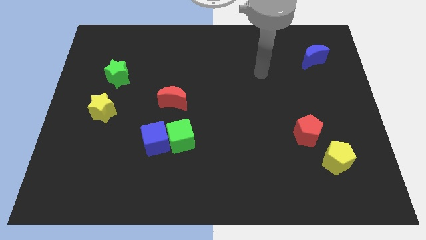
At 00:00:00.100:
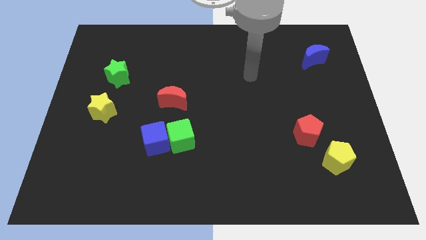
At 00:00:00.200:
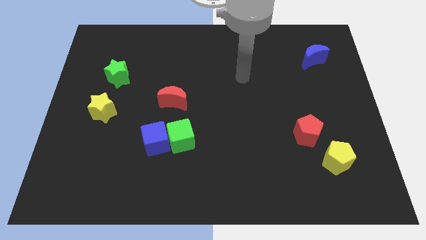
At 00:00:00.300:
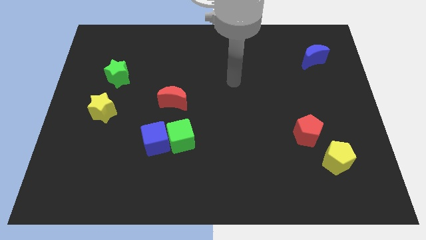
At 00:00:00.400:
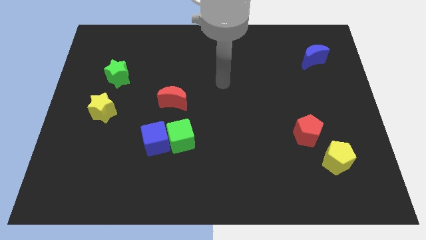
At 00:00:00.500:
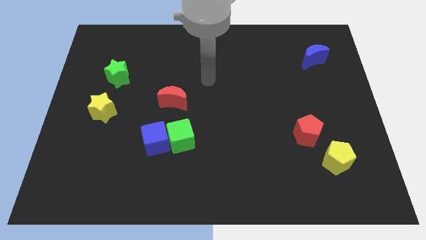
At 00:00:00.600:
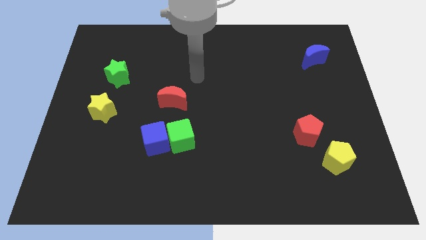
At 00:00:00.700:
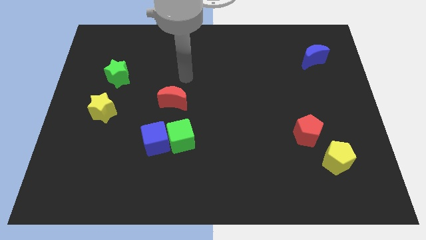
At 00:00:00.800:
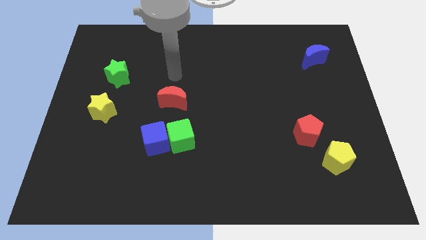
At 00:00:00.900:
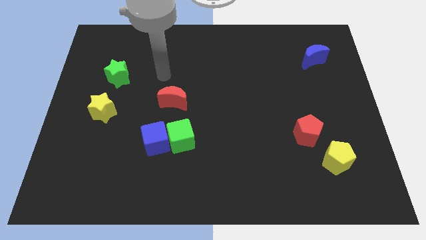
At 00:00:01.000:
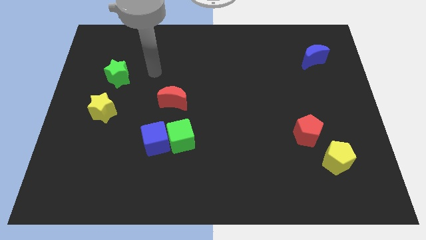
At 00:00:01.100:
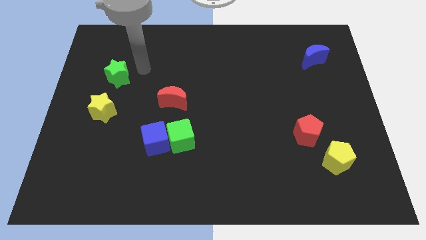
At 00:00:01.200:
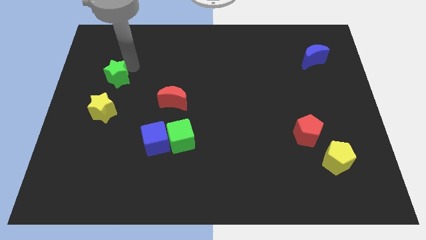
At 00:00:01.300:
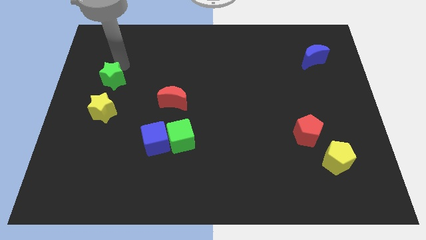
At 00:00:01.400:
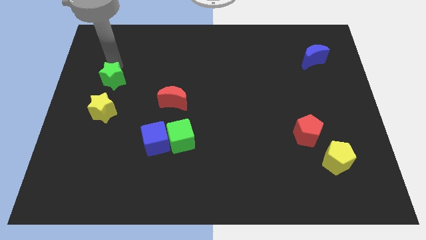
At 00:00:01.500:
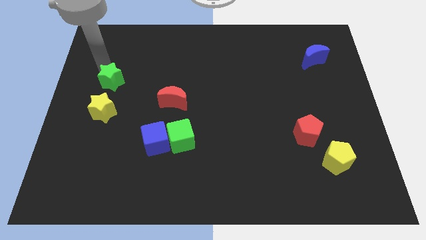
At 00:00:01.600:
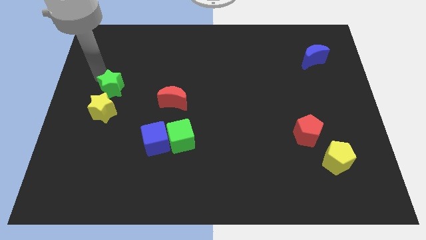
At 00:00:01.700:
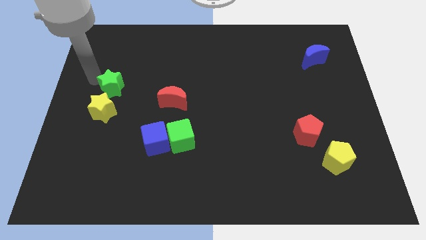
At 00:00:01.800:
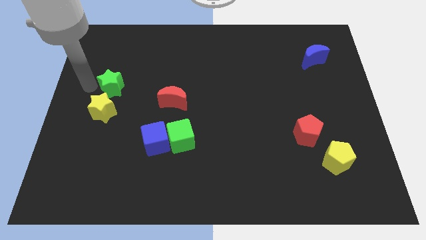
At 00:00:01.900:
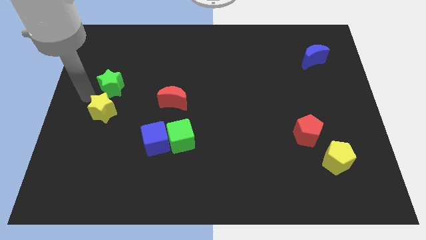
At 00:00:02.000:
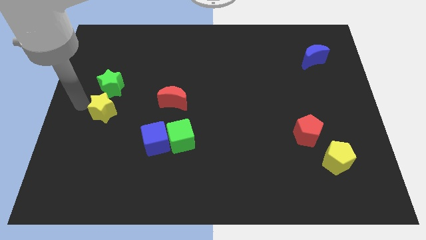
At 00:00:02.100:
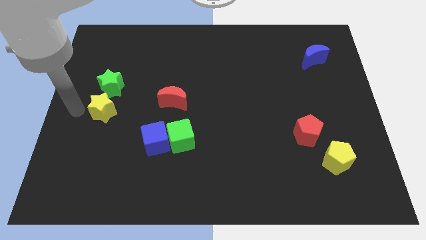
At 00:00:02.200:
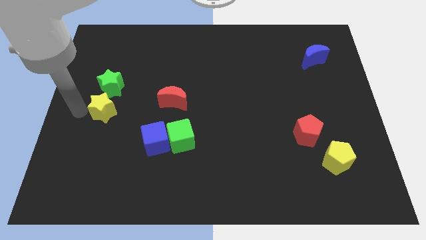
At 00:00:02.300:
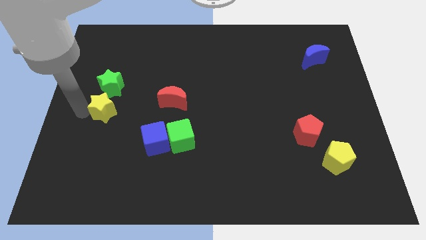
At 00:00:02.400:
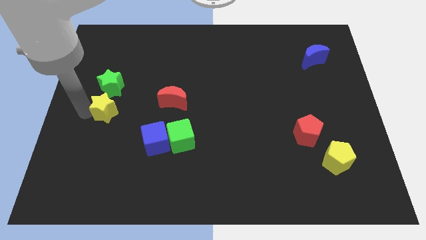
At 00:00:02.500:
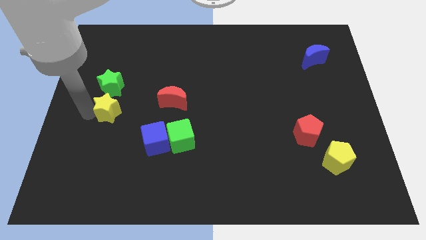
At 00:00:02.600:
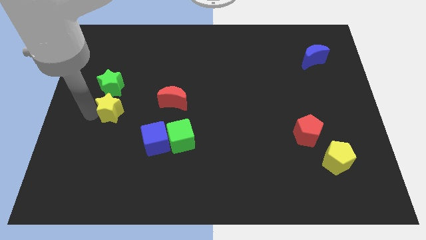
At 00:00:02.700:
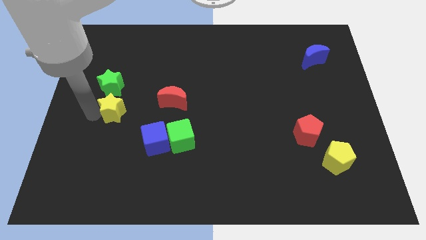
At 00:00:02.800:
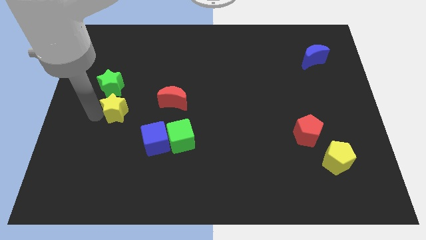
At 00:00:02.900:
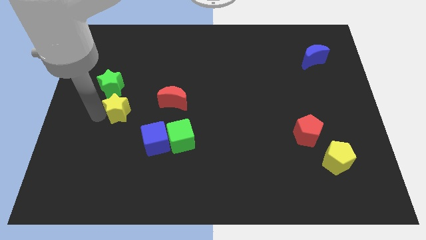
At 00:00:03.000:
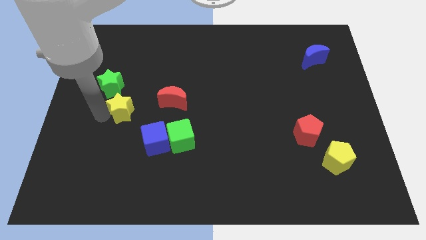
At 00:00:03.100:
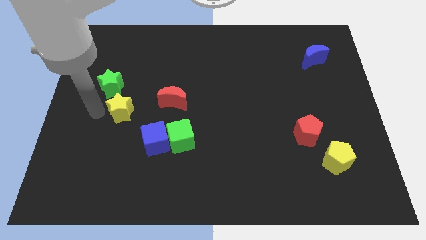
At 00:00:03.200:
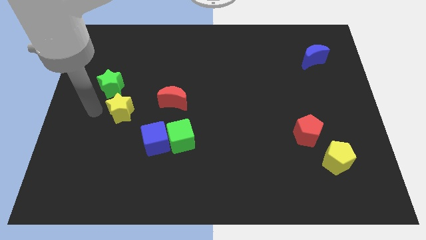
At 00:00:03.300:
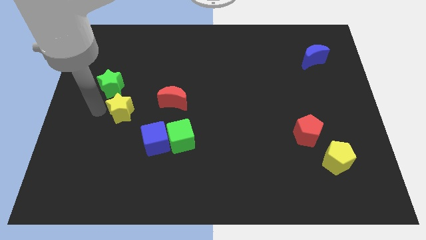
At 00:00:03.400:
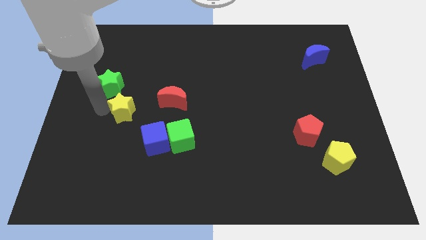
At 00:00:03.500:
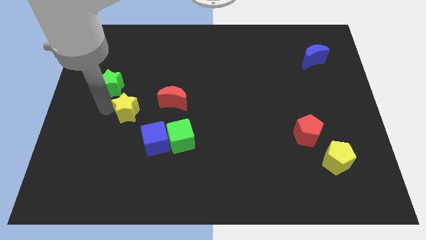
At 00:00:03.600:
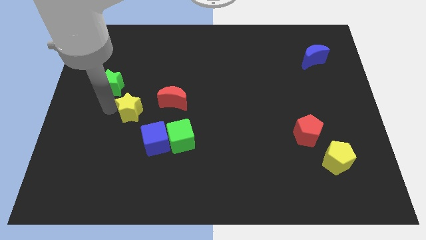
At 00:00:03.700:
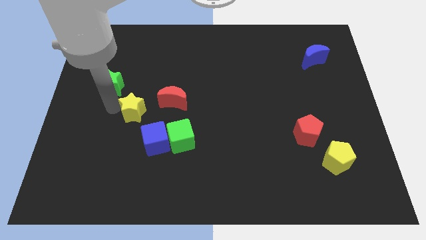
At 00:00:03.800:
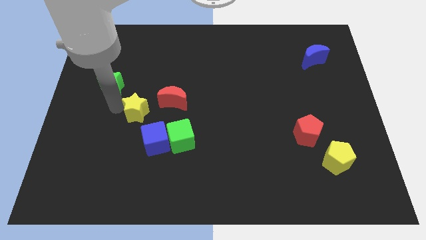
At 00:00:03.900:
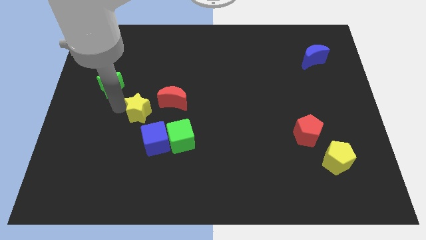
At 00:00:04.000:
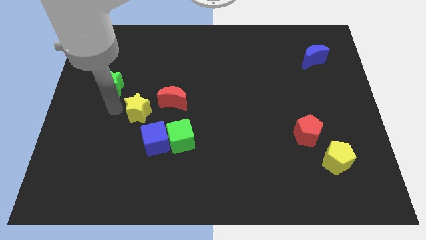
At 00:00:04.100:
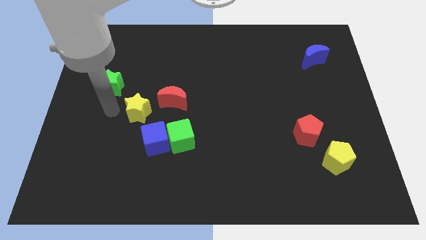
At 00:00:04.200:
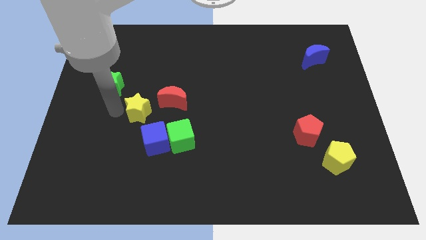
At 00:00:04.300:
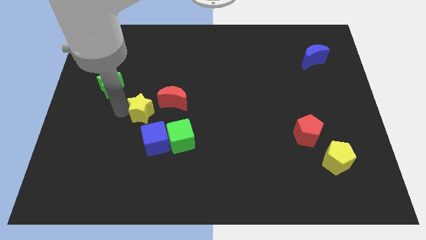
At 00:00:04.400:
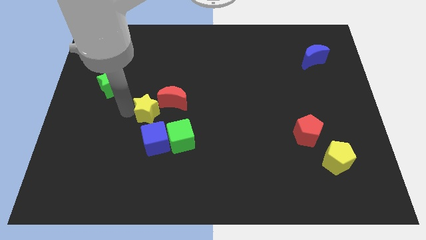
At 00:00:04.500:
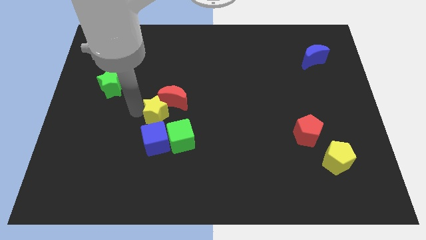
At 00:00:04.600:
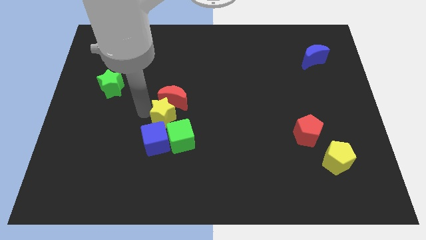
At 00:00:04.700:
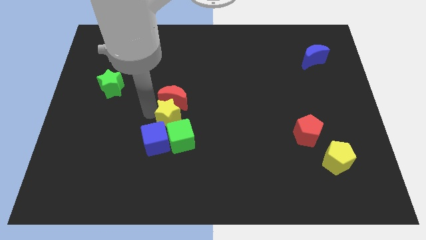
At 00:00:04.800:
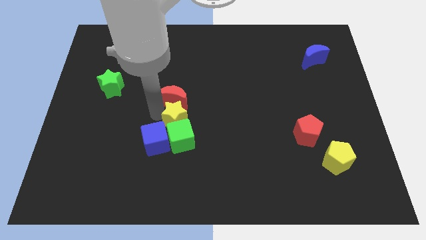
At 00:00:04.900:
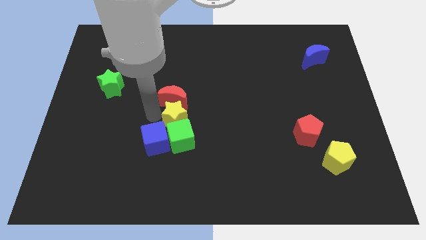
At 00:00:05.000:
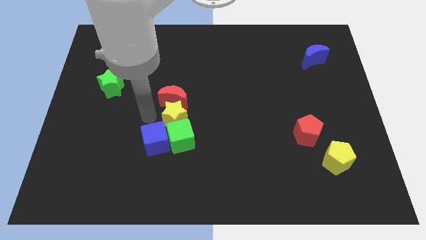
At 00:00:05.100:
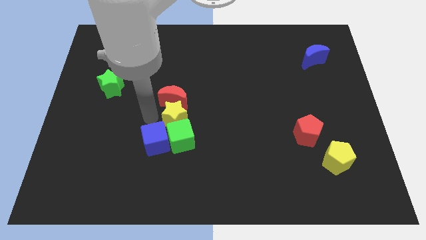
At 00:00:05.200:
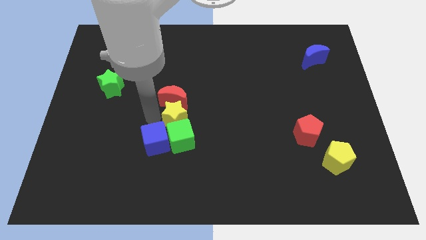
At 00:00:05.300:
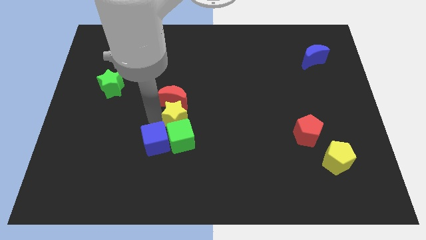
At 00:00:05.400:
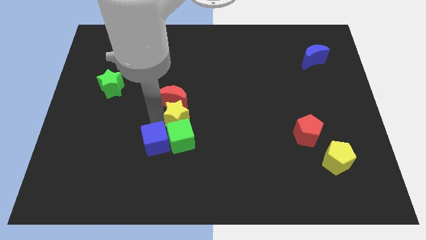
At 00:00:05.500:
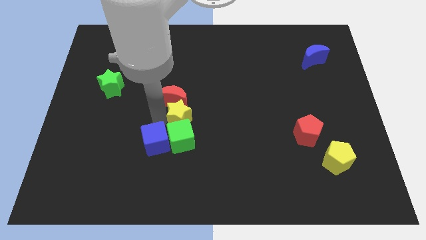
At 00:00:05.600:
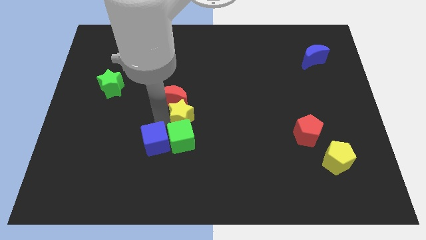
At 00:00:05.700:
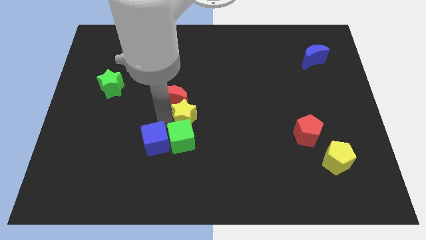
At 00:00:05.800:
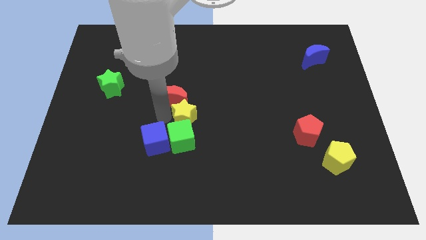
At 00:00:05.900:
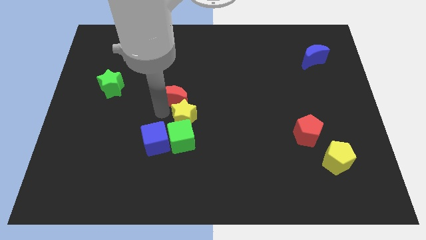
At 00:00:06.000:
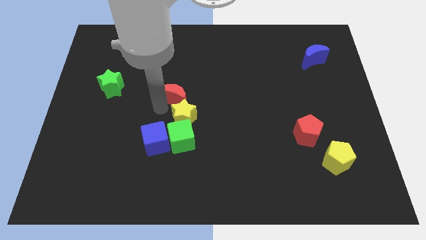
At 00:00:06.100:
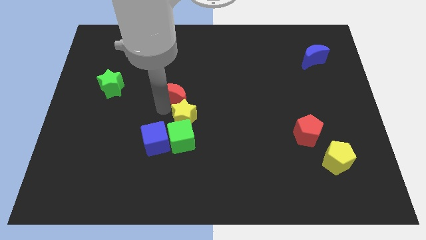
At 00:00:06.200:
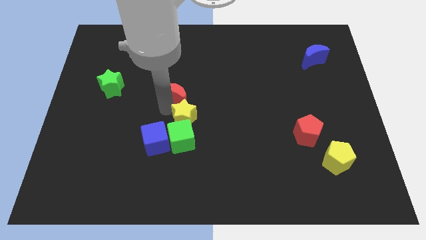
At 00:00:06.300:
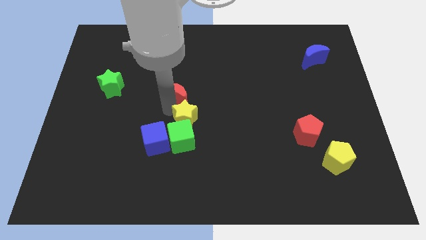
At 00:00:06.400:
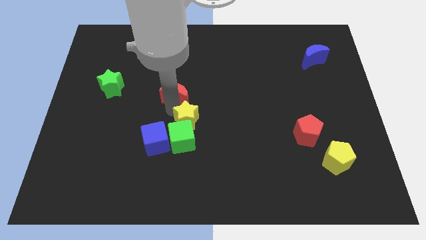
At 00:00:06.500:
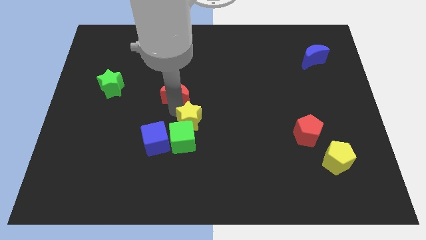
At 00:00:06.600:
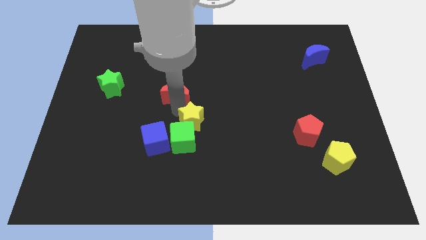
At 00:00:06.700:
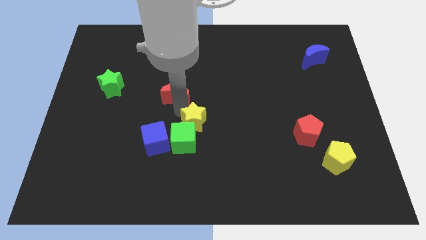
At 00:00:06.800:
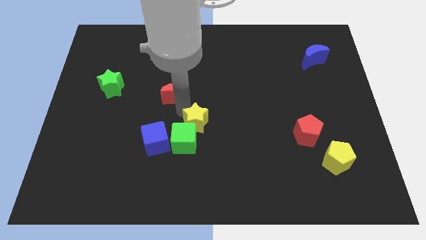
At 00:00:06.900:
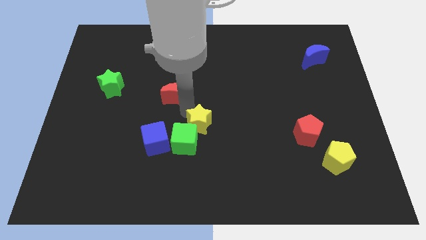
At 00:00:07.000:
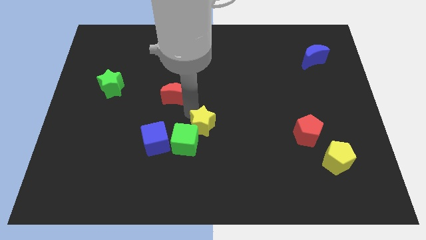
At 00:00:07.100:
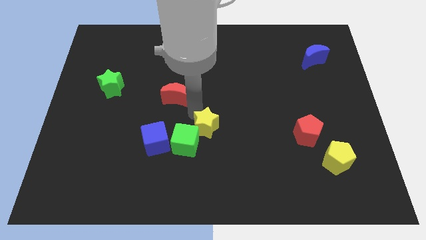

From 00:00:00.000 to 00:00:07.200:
slide the yellow star just right of the green cube
